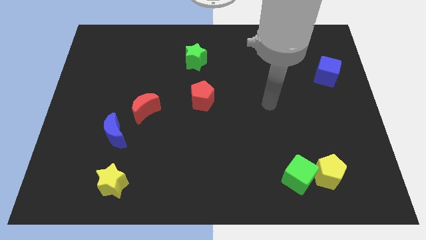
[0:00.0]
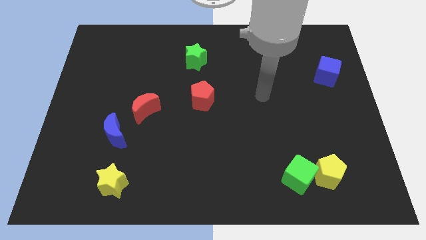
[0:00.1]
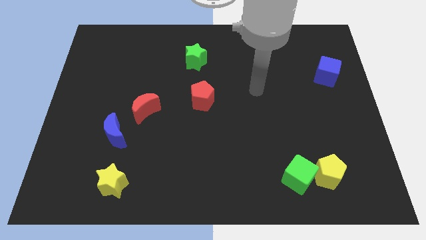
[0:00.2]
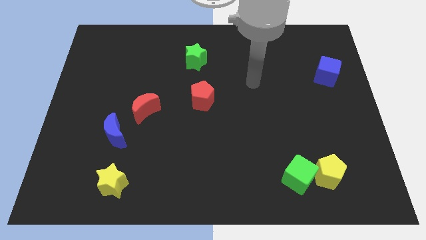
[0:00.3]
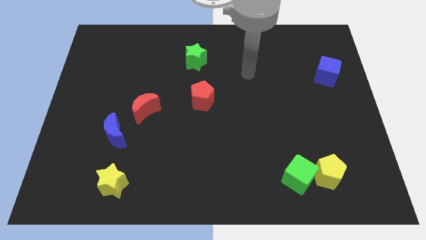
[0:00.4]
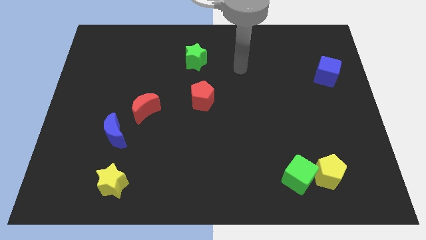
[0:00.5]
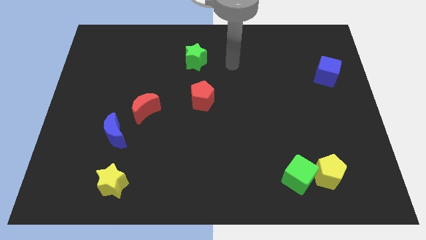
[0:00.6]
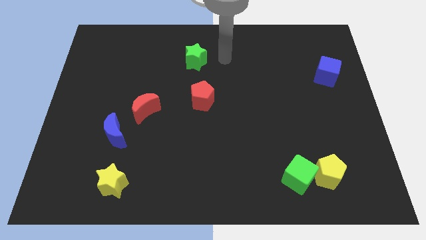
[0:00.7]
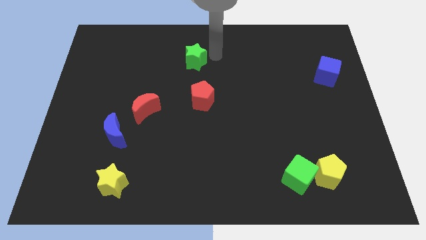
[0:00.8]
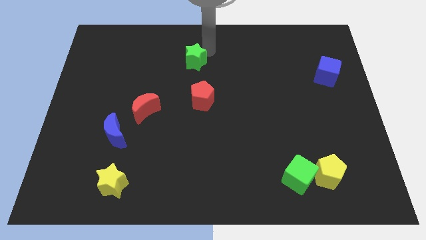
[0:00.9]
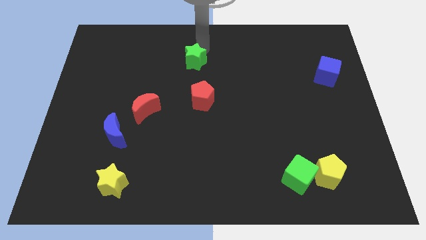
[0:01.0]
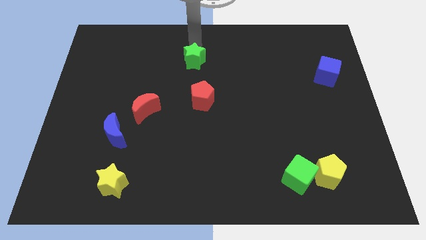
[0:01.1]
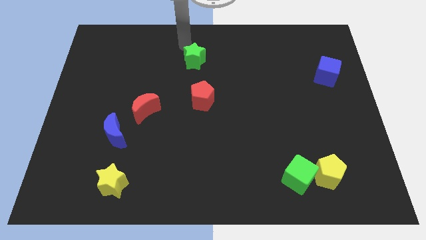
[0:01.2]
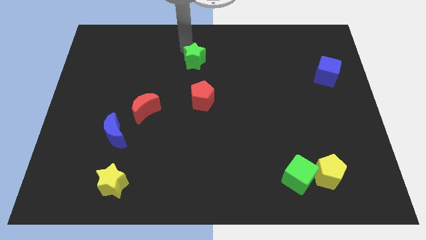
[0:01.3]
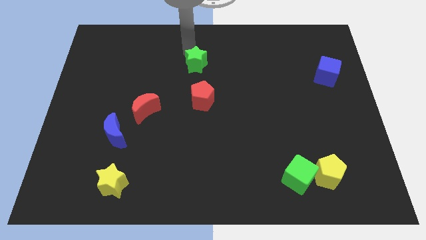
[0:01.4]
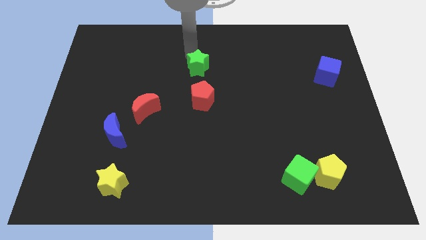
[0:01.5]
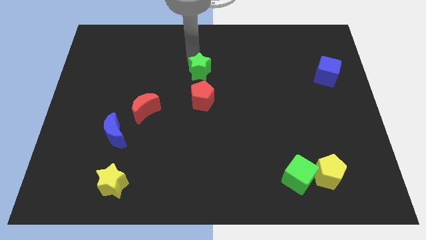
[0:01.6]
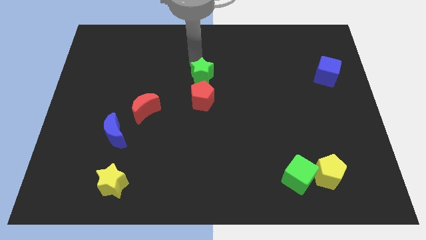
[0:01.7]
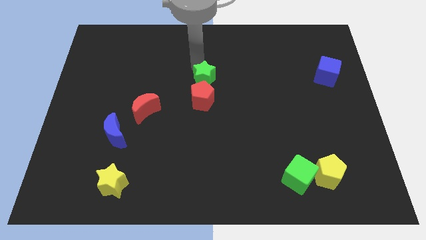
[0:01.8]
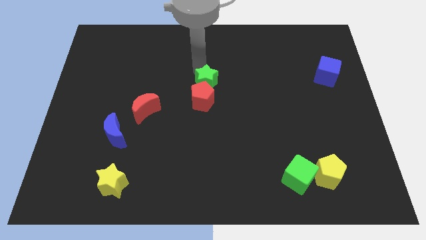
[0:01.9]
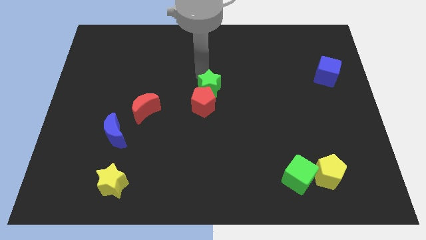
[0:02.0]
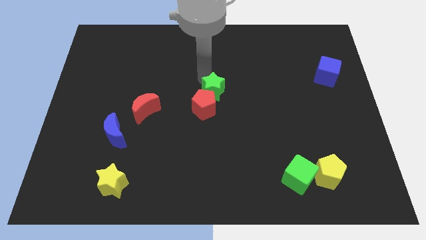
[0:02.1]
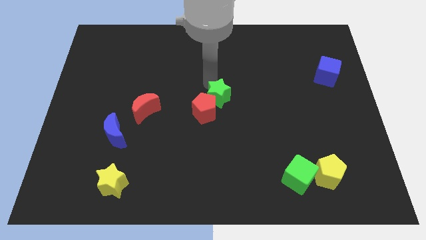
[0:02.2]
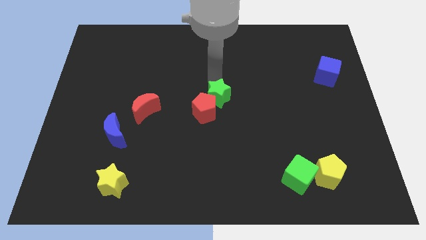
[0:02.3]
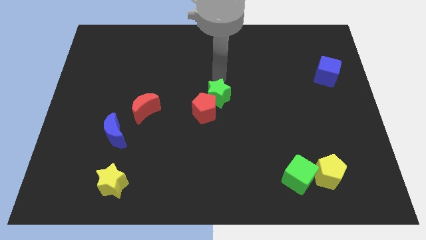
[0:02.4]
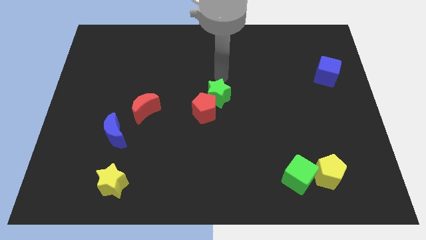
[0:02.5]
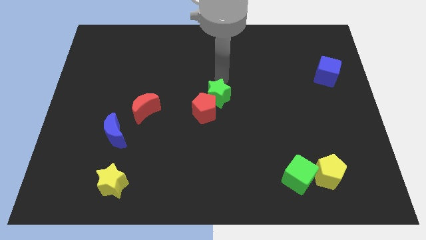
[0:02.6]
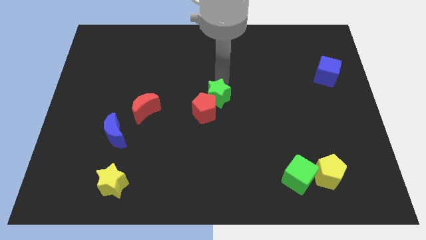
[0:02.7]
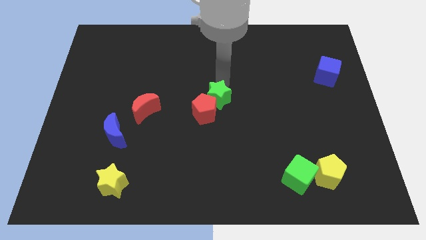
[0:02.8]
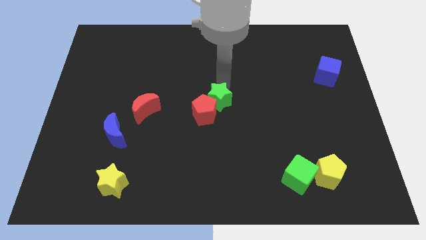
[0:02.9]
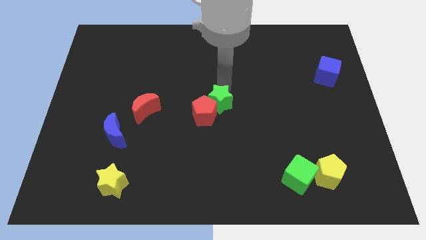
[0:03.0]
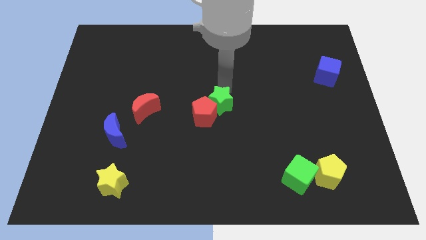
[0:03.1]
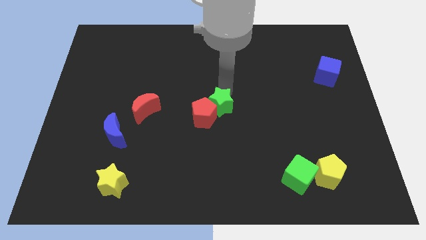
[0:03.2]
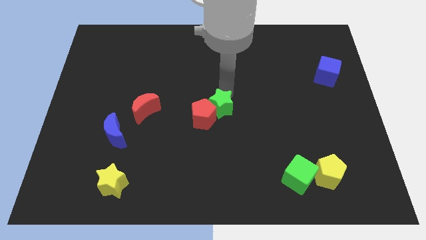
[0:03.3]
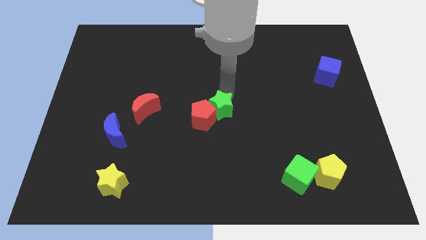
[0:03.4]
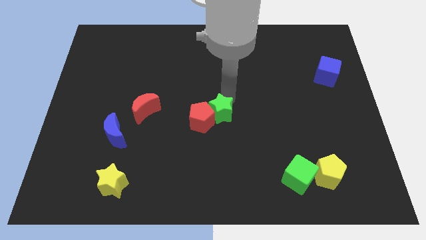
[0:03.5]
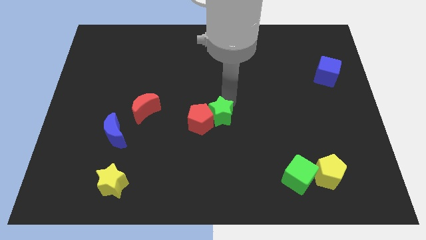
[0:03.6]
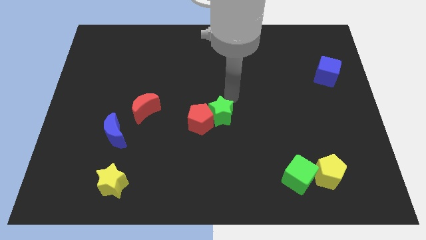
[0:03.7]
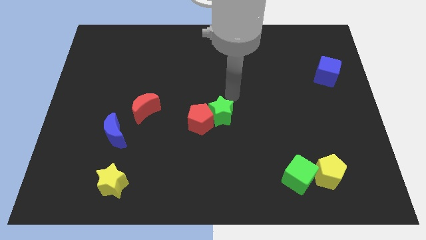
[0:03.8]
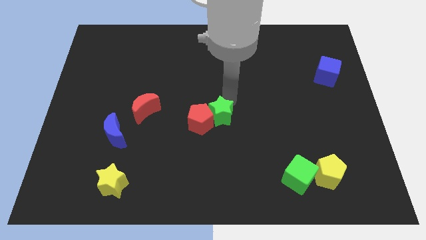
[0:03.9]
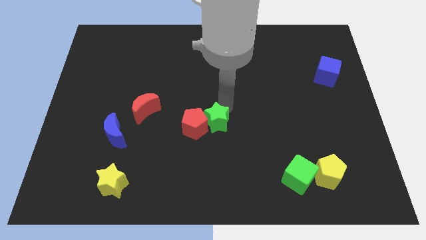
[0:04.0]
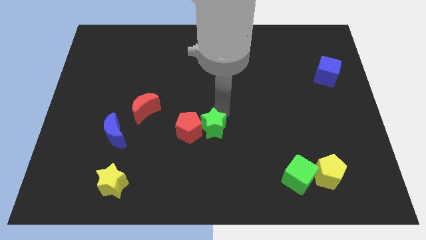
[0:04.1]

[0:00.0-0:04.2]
push the green star down

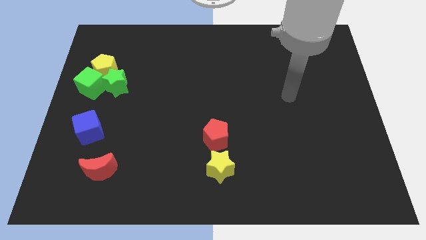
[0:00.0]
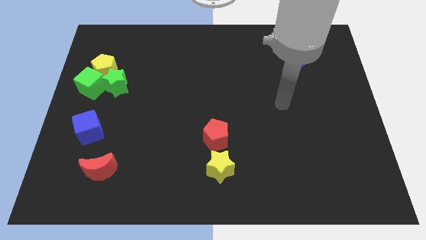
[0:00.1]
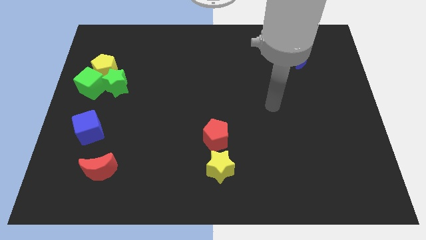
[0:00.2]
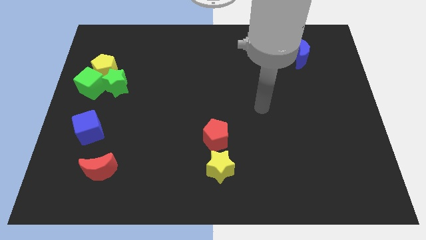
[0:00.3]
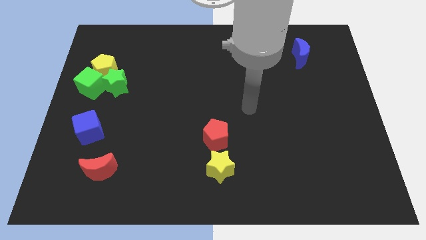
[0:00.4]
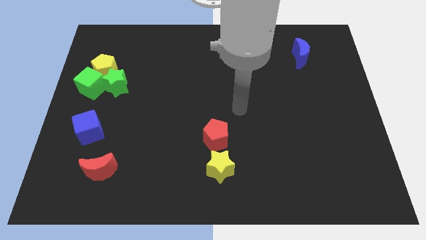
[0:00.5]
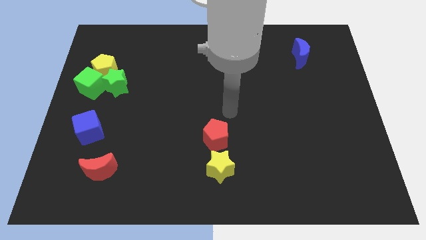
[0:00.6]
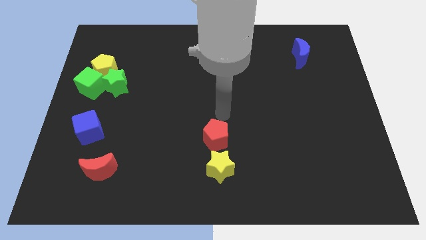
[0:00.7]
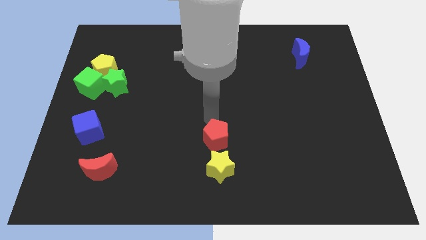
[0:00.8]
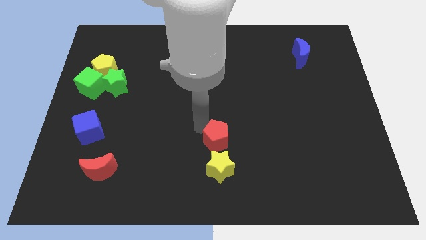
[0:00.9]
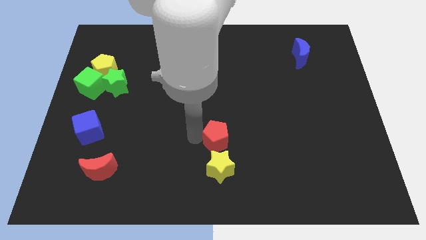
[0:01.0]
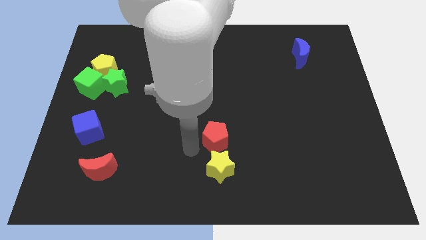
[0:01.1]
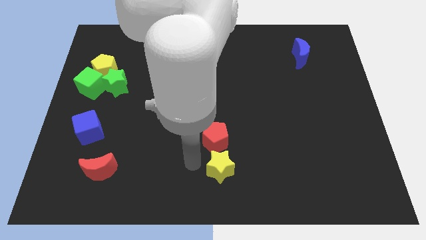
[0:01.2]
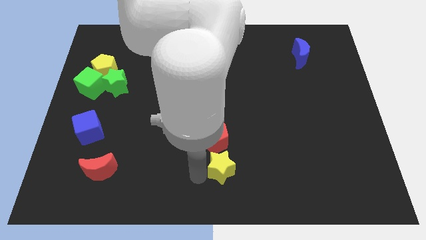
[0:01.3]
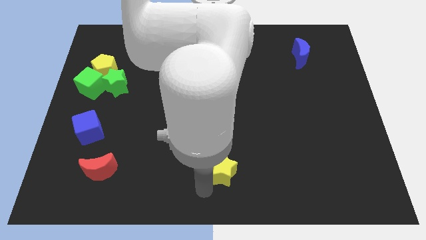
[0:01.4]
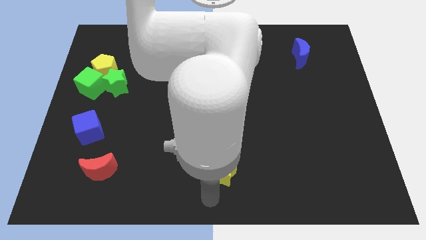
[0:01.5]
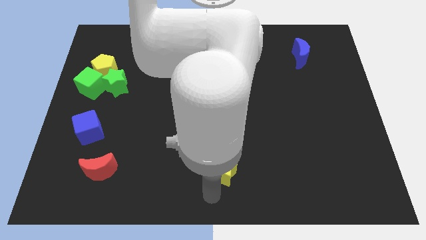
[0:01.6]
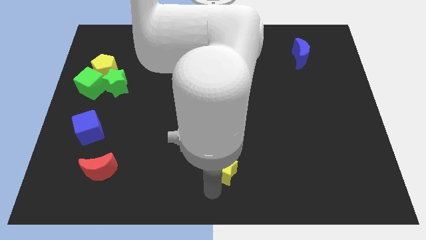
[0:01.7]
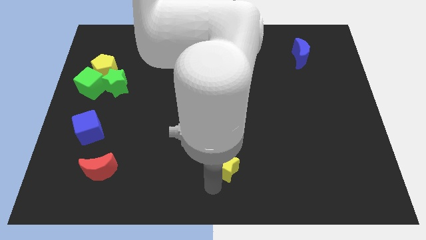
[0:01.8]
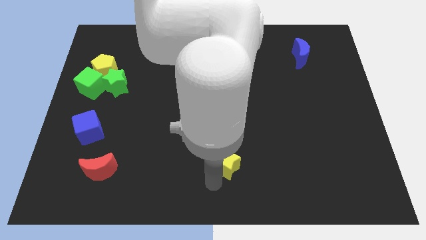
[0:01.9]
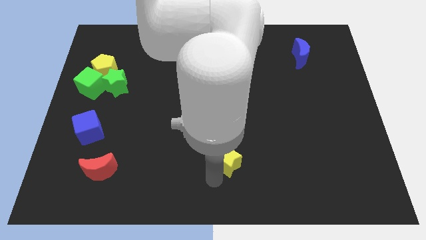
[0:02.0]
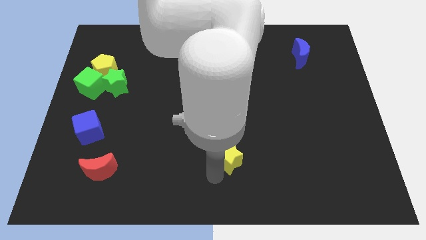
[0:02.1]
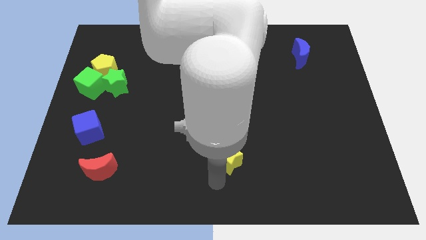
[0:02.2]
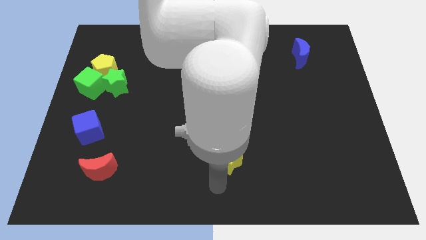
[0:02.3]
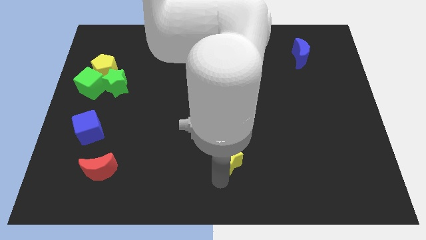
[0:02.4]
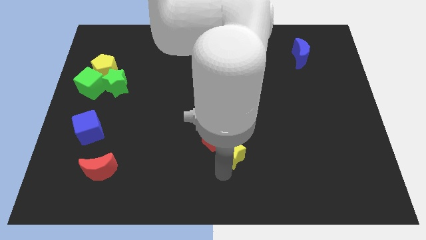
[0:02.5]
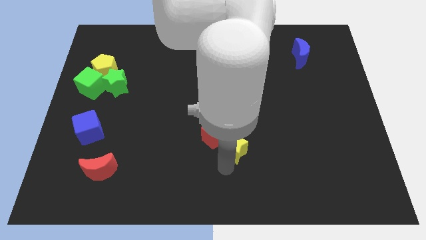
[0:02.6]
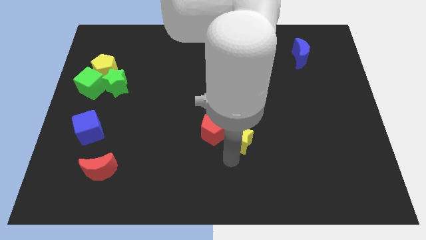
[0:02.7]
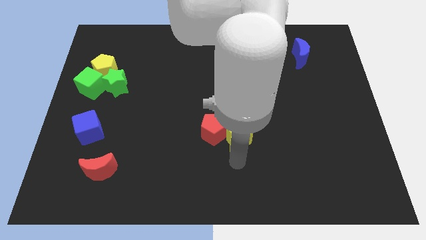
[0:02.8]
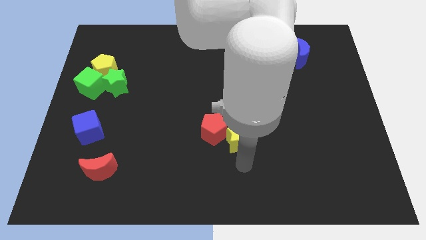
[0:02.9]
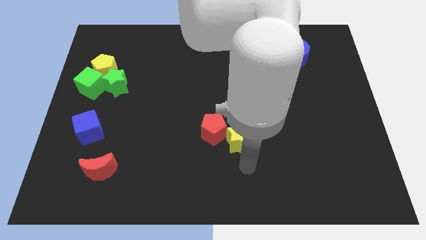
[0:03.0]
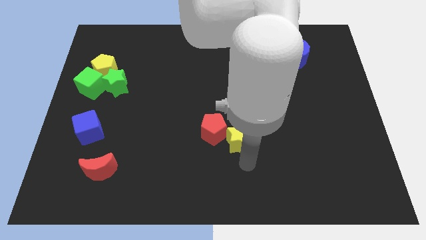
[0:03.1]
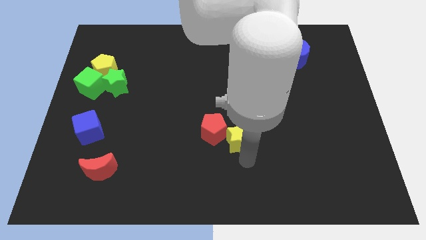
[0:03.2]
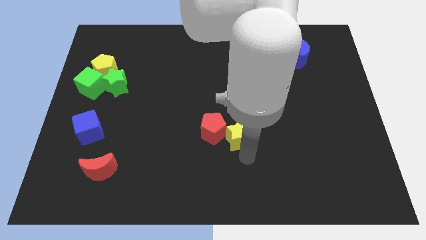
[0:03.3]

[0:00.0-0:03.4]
slightly slide the yellow star up

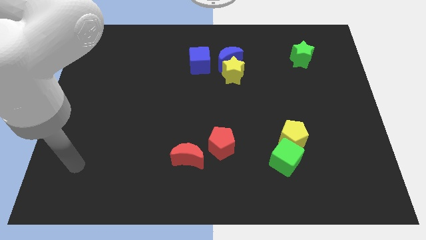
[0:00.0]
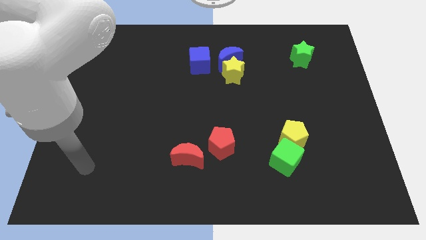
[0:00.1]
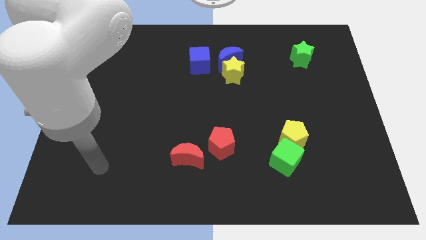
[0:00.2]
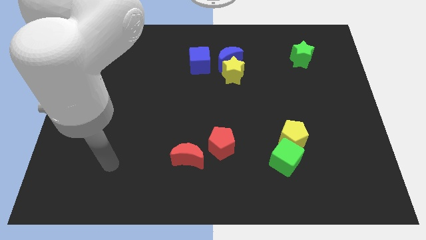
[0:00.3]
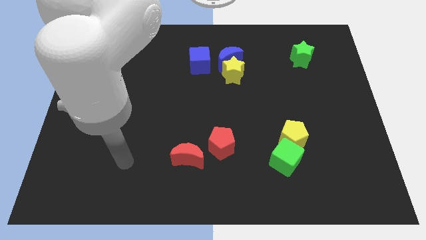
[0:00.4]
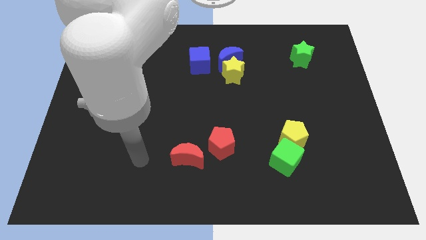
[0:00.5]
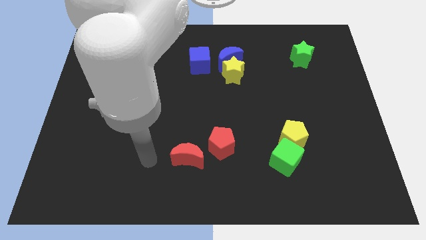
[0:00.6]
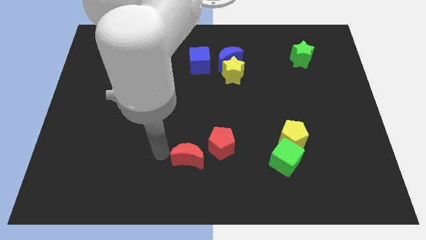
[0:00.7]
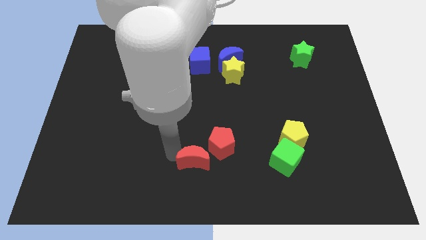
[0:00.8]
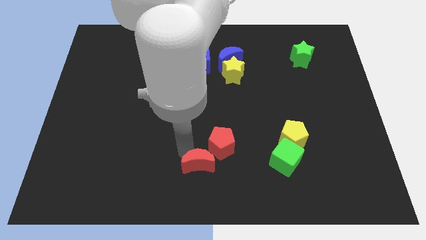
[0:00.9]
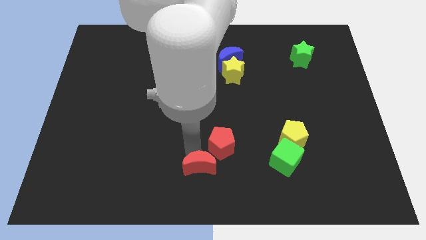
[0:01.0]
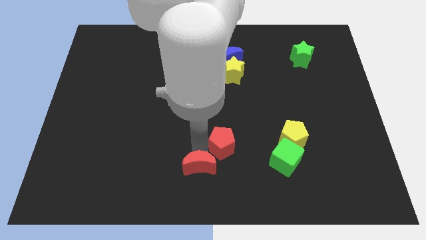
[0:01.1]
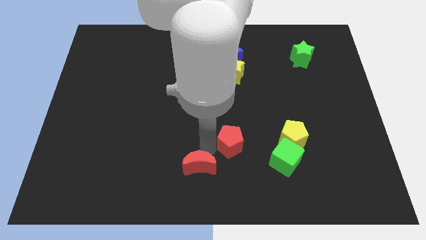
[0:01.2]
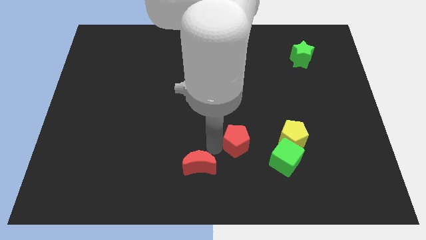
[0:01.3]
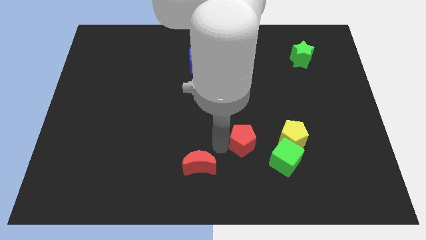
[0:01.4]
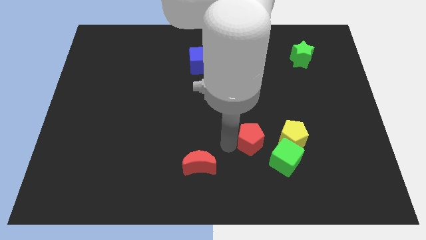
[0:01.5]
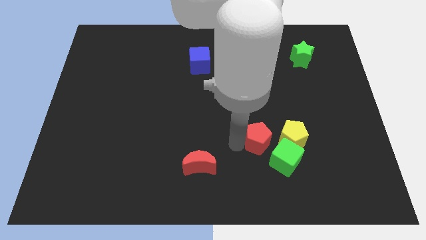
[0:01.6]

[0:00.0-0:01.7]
push the red pentagon right a bit
